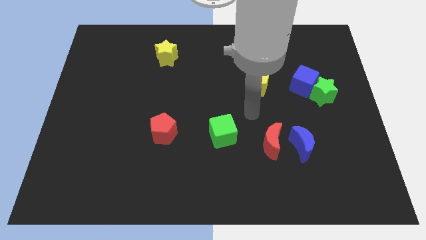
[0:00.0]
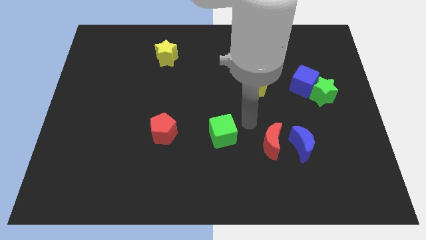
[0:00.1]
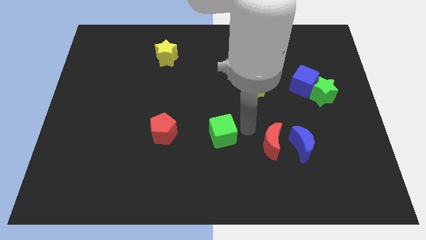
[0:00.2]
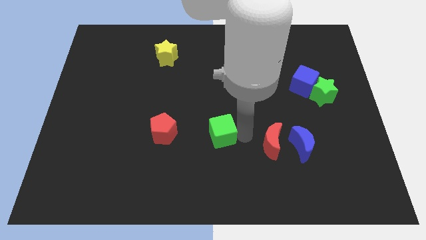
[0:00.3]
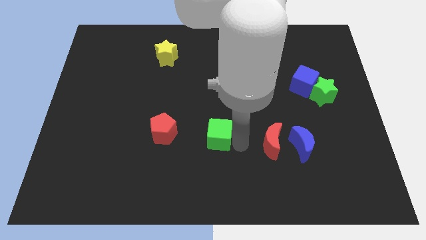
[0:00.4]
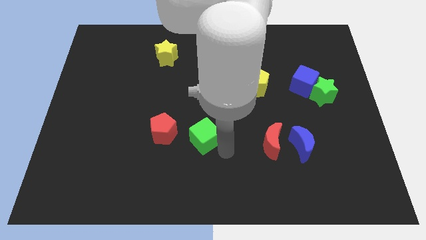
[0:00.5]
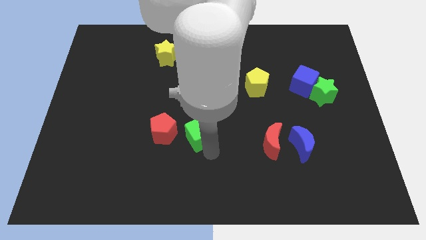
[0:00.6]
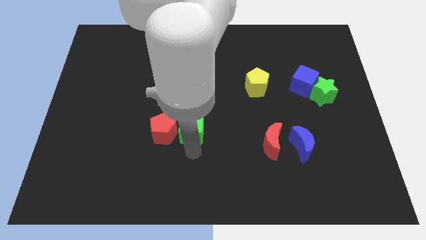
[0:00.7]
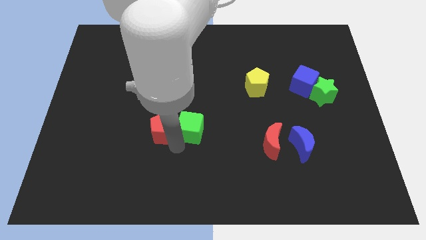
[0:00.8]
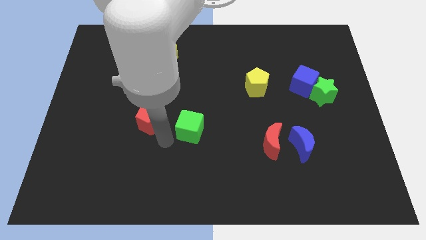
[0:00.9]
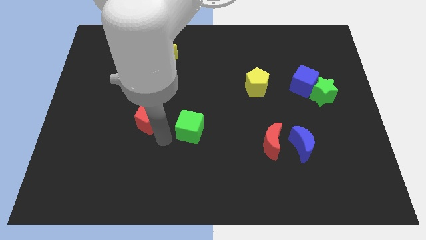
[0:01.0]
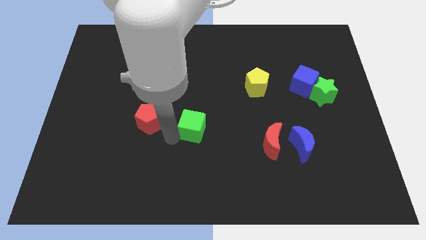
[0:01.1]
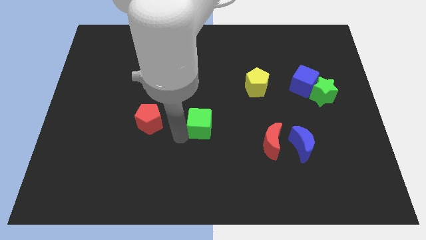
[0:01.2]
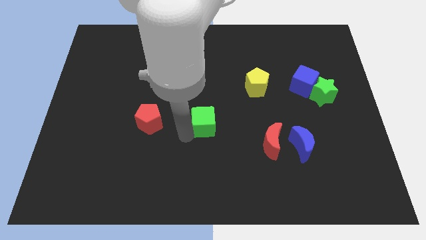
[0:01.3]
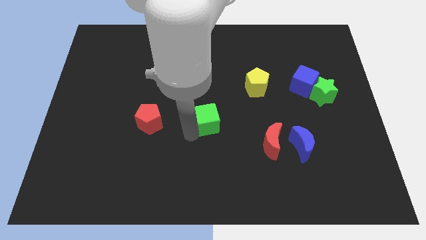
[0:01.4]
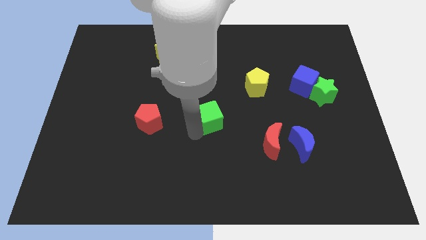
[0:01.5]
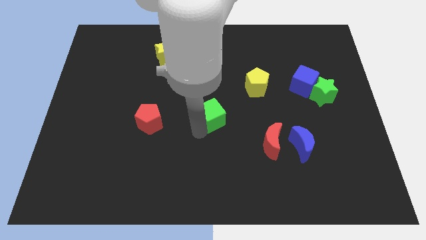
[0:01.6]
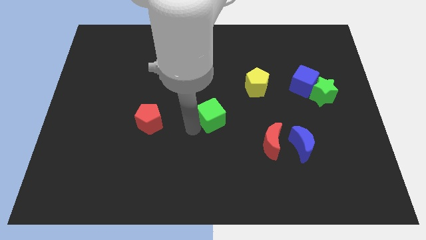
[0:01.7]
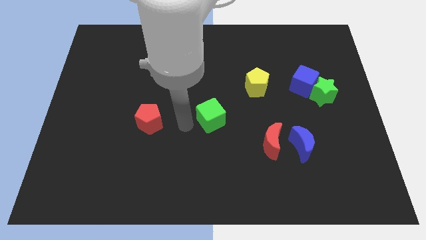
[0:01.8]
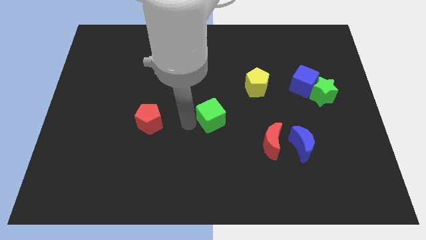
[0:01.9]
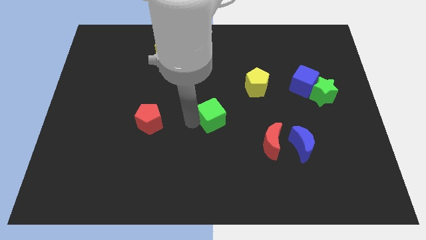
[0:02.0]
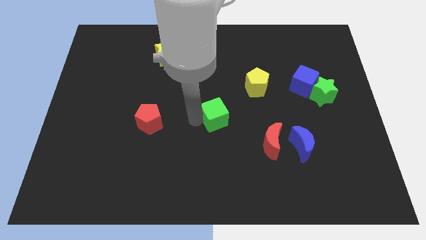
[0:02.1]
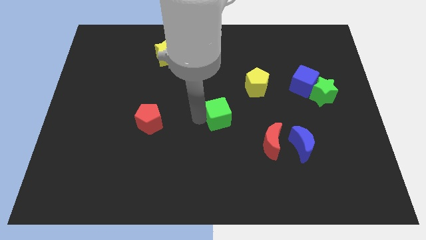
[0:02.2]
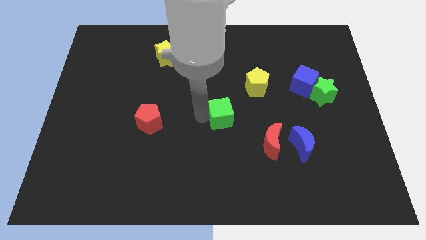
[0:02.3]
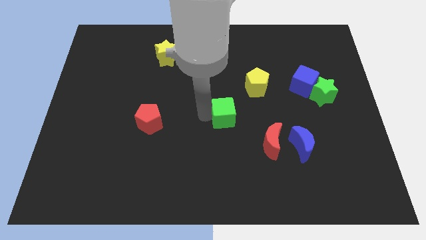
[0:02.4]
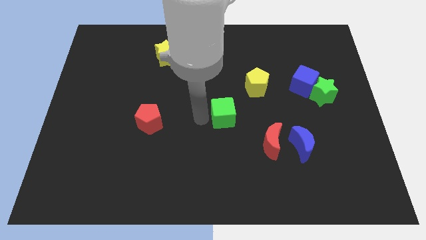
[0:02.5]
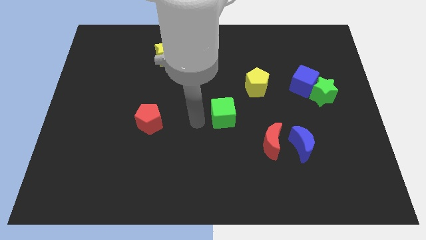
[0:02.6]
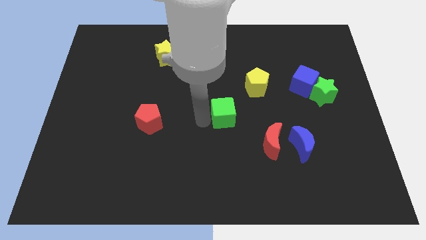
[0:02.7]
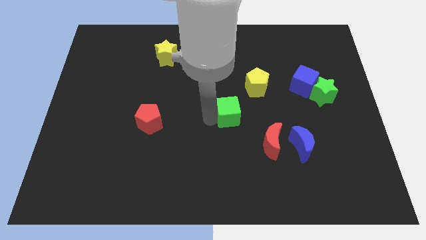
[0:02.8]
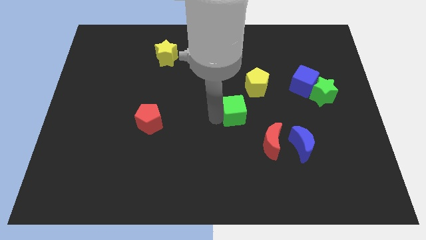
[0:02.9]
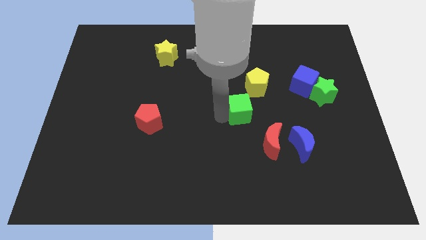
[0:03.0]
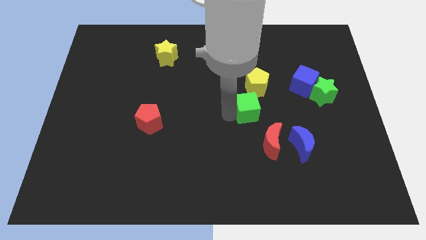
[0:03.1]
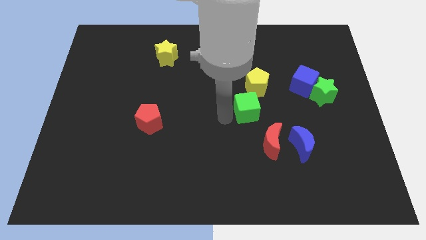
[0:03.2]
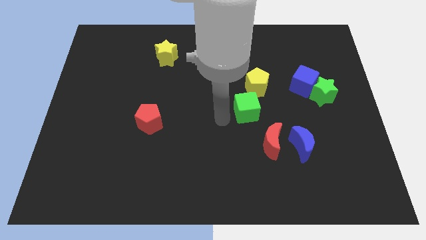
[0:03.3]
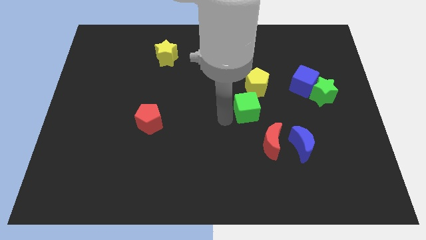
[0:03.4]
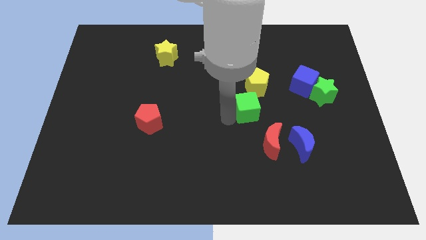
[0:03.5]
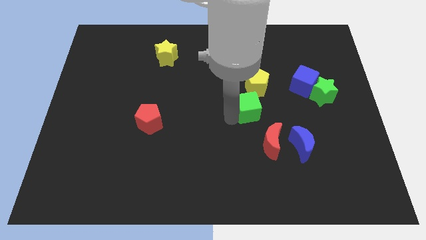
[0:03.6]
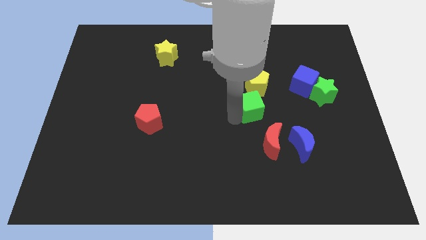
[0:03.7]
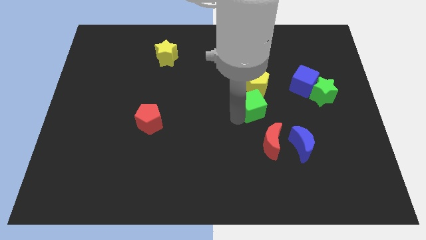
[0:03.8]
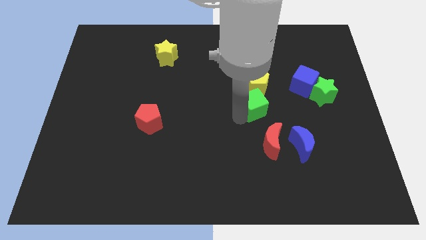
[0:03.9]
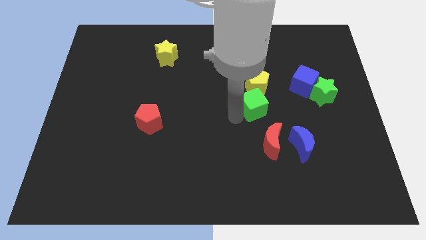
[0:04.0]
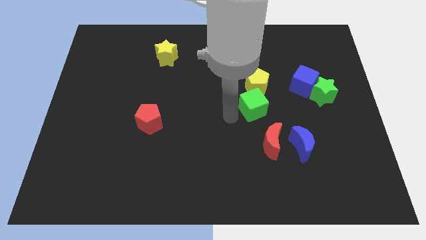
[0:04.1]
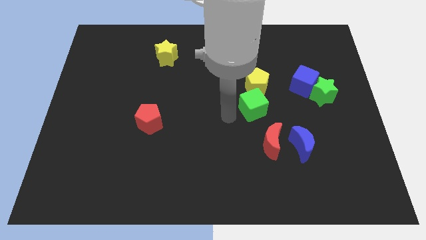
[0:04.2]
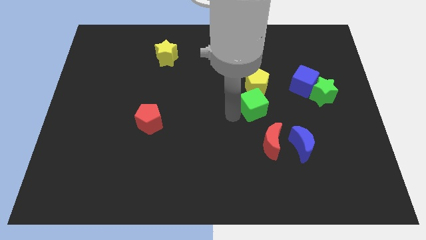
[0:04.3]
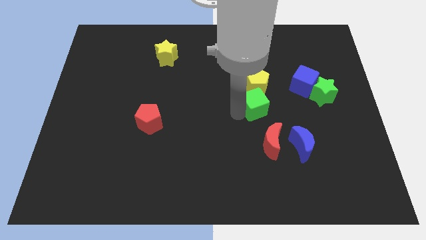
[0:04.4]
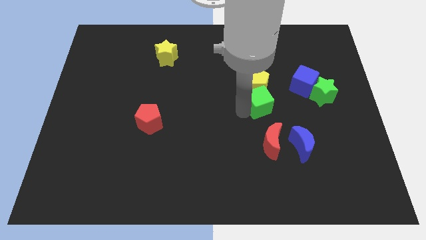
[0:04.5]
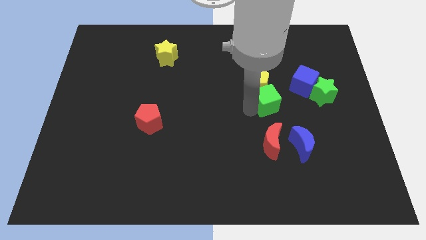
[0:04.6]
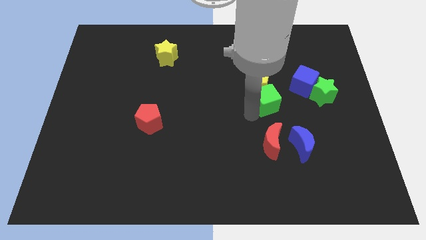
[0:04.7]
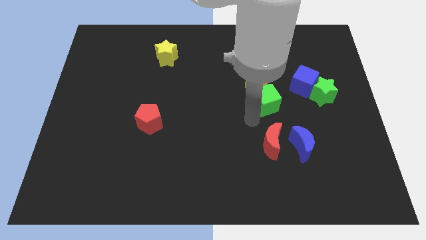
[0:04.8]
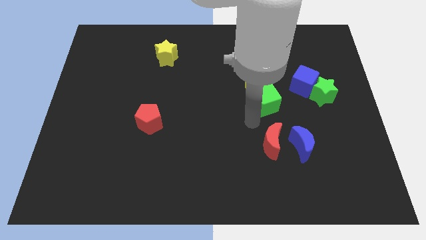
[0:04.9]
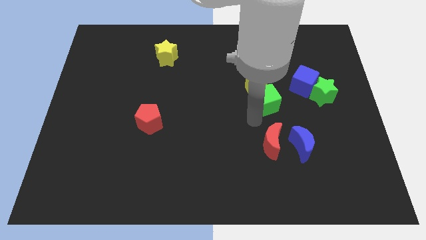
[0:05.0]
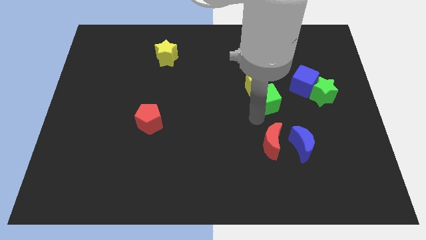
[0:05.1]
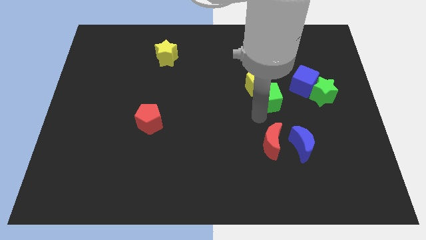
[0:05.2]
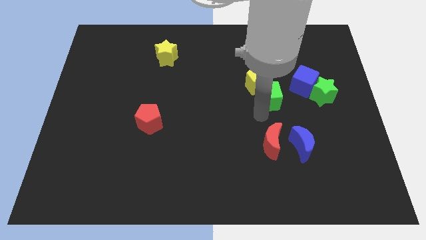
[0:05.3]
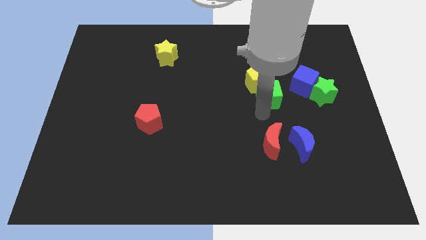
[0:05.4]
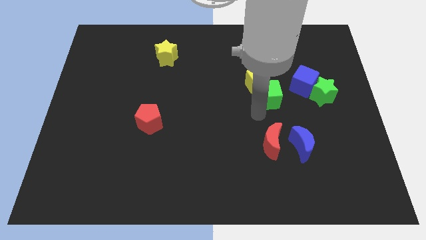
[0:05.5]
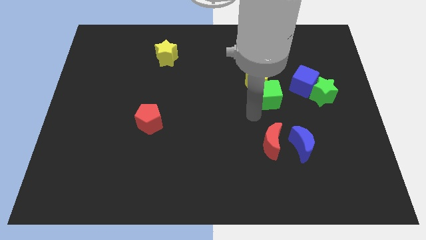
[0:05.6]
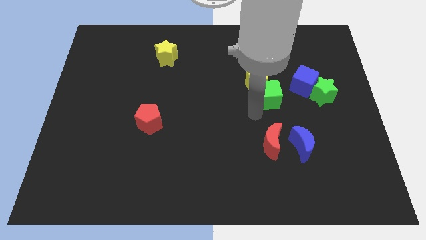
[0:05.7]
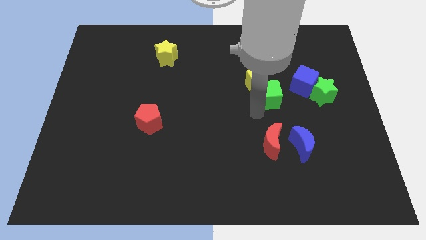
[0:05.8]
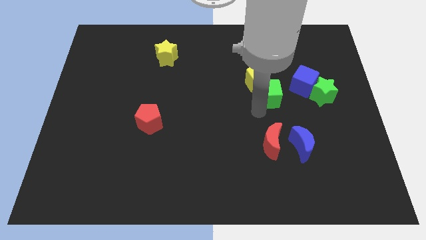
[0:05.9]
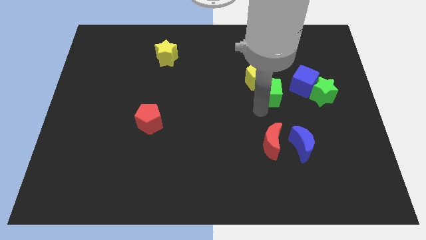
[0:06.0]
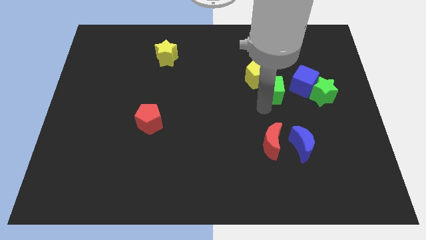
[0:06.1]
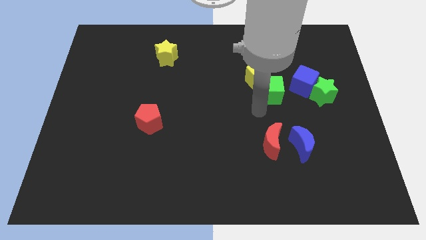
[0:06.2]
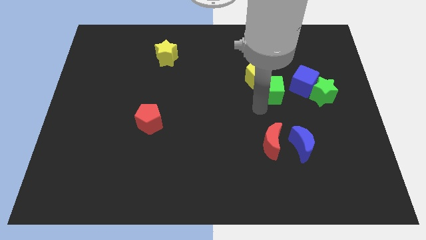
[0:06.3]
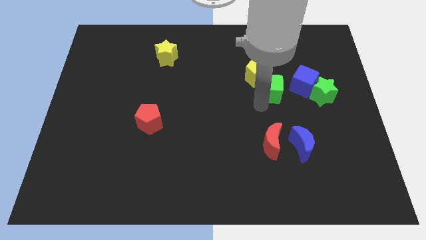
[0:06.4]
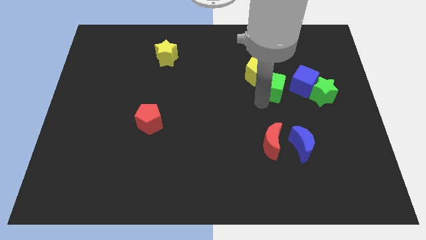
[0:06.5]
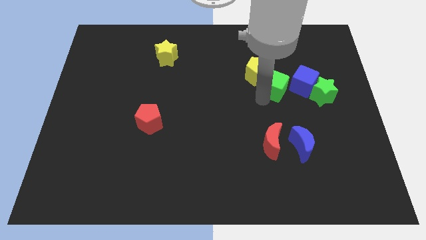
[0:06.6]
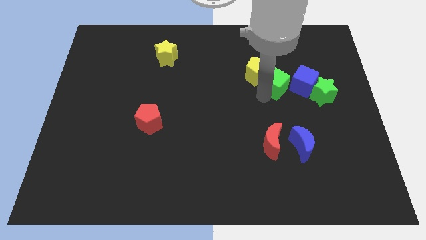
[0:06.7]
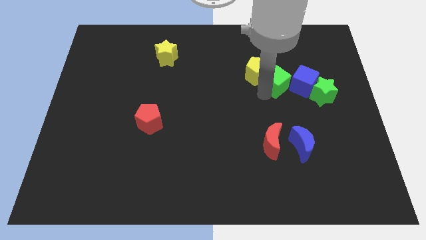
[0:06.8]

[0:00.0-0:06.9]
slide the green cube up and then right

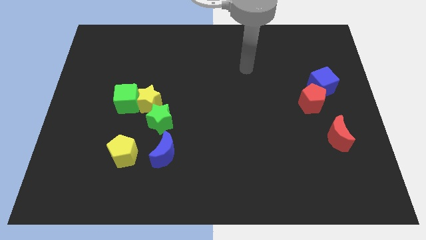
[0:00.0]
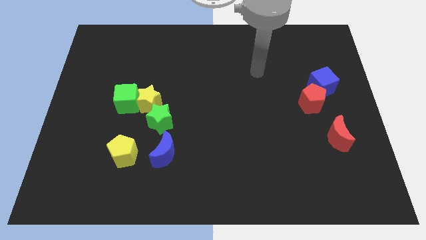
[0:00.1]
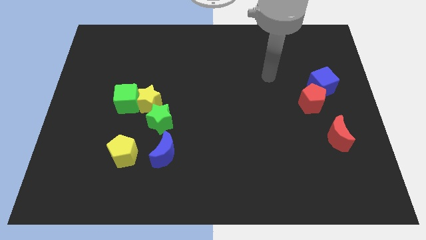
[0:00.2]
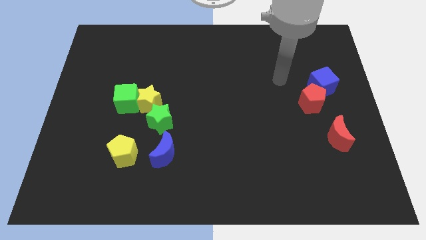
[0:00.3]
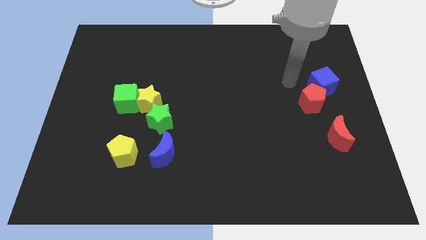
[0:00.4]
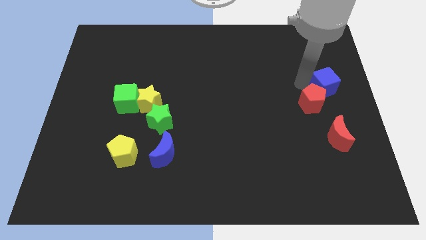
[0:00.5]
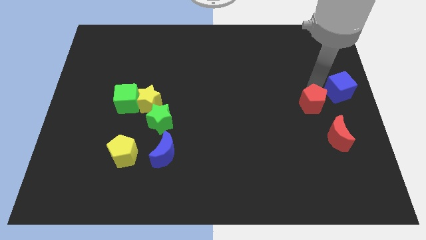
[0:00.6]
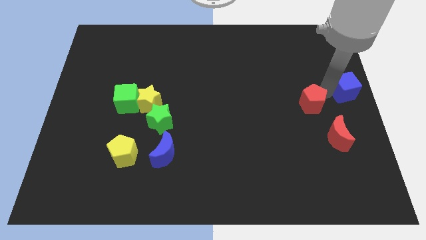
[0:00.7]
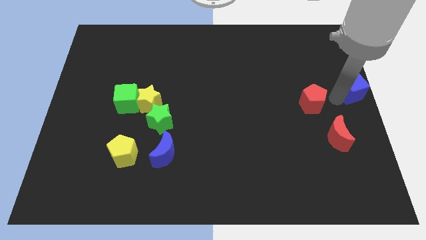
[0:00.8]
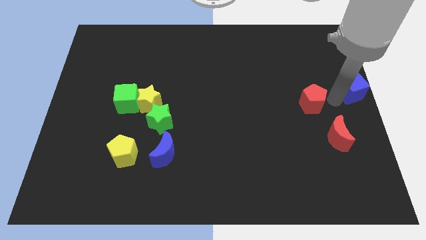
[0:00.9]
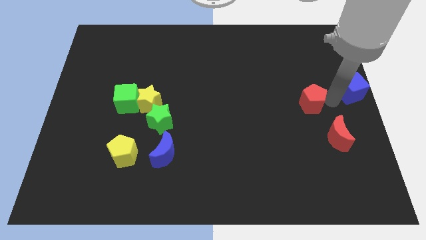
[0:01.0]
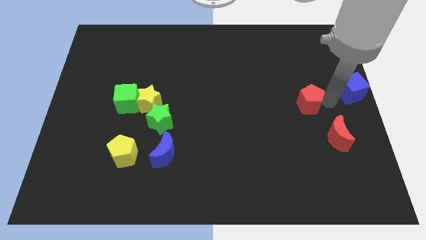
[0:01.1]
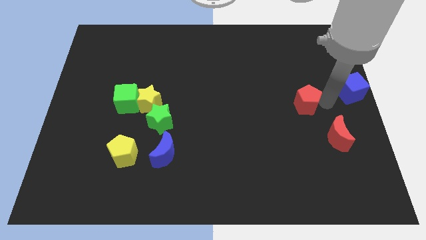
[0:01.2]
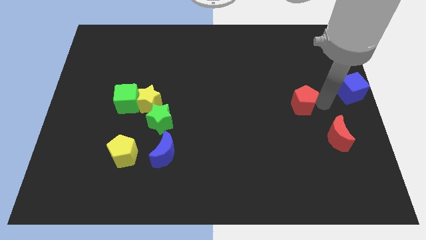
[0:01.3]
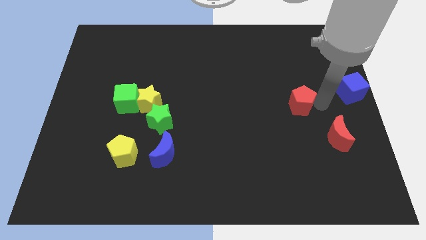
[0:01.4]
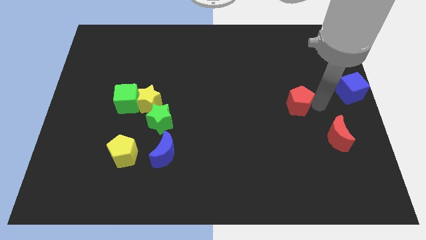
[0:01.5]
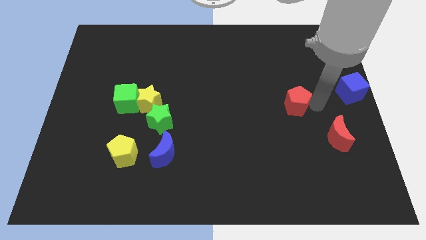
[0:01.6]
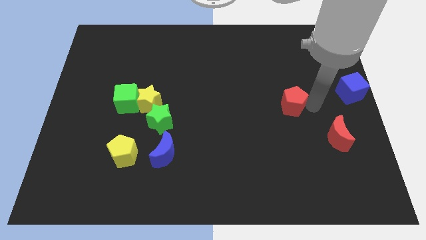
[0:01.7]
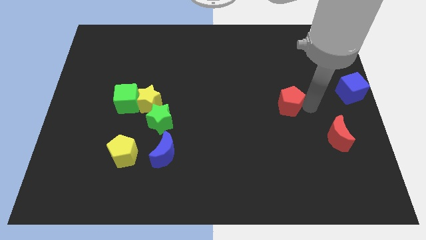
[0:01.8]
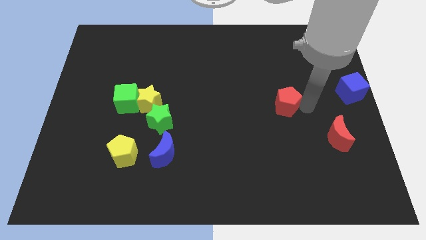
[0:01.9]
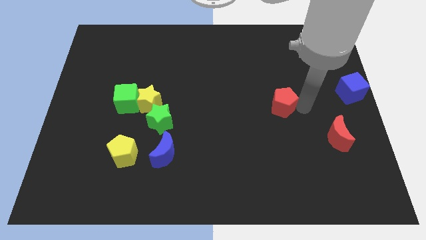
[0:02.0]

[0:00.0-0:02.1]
push the red pentagon left a little
